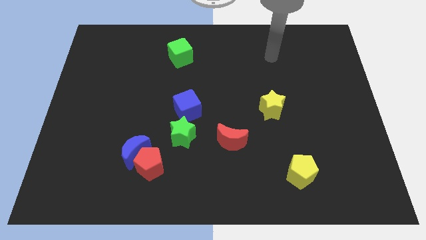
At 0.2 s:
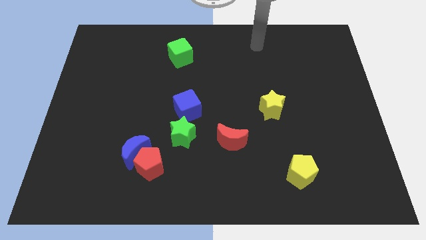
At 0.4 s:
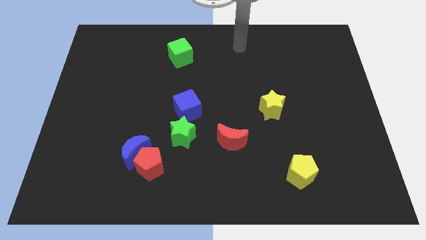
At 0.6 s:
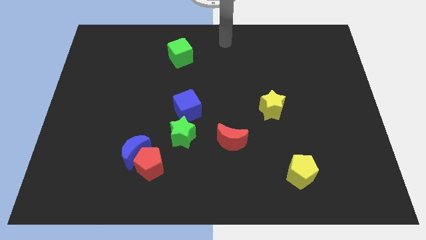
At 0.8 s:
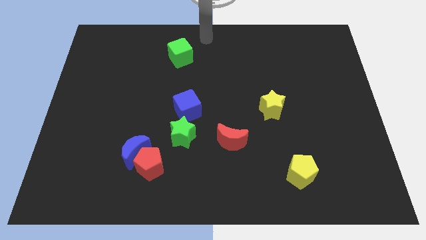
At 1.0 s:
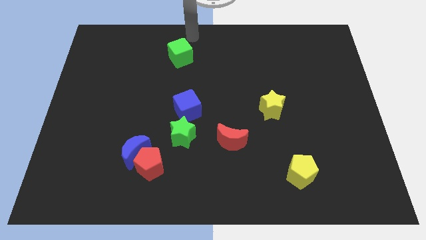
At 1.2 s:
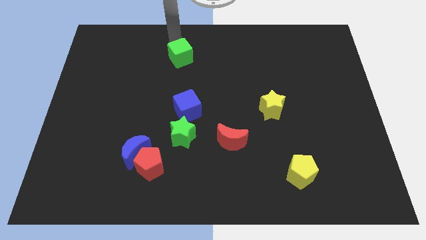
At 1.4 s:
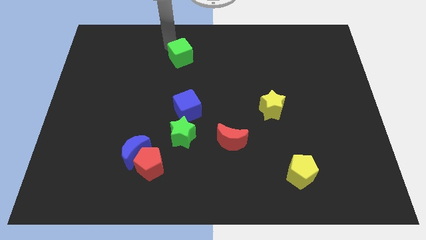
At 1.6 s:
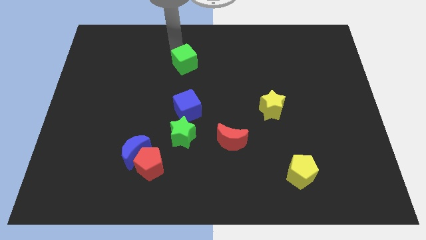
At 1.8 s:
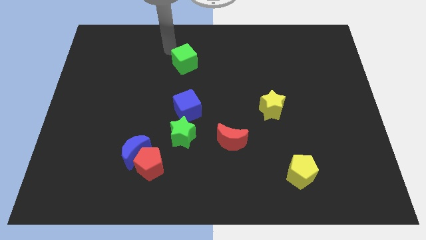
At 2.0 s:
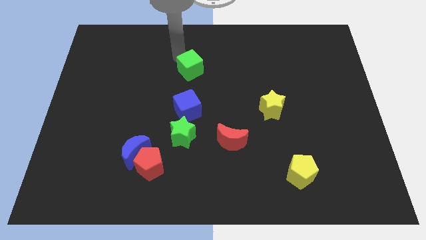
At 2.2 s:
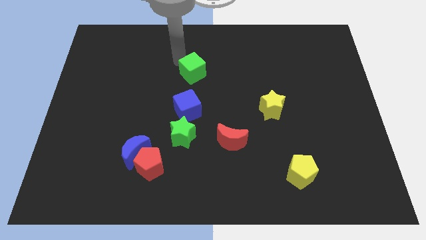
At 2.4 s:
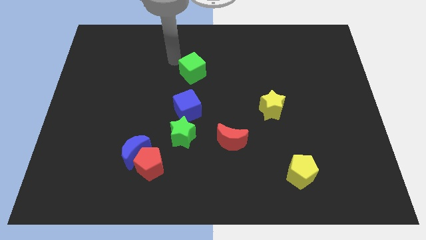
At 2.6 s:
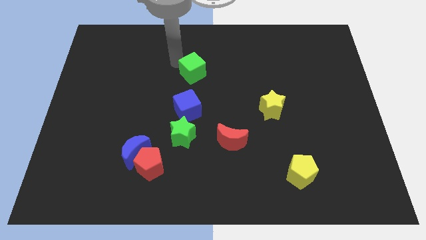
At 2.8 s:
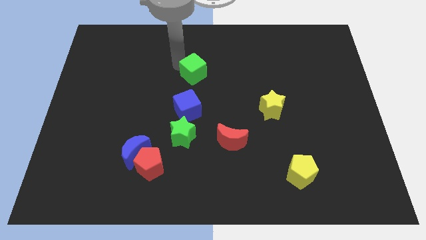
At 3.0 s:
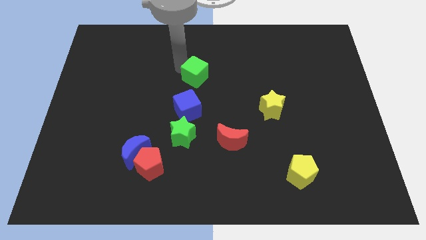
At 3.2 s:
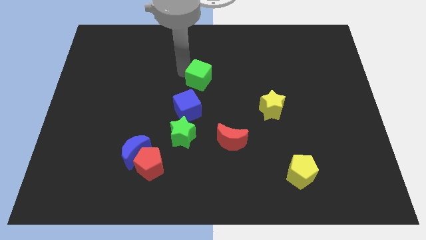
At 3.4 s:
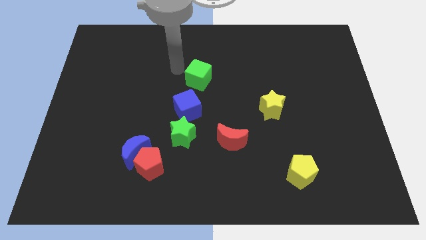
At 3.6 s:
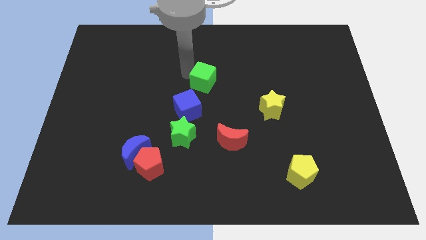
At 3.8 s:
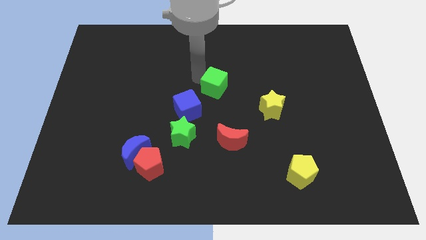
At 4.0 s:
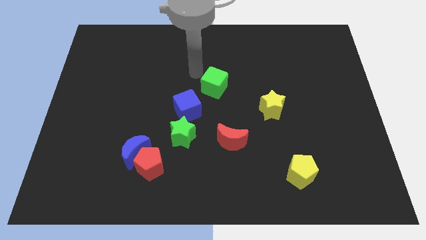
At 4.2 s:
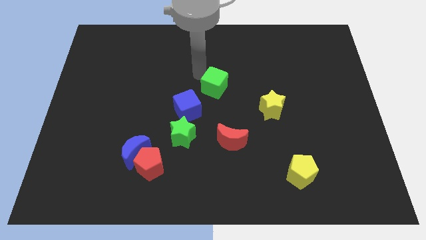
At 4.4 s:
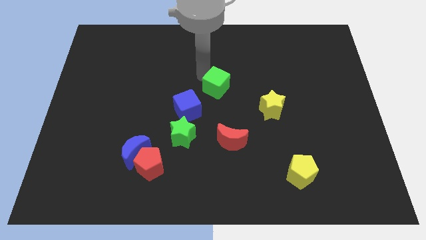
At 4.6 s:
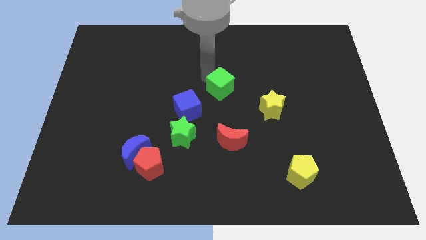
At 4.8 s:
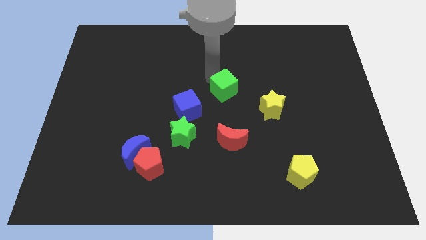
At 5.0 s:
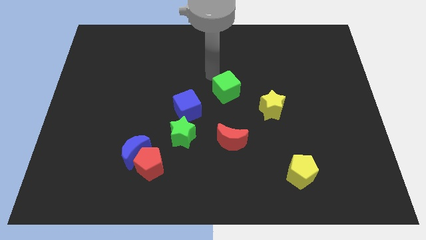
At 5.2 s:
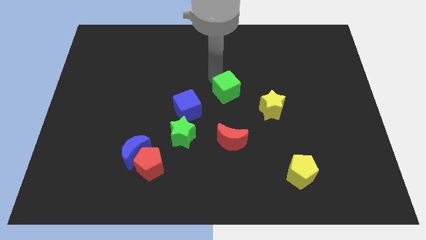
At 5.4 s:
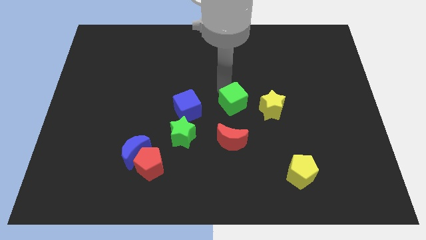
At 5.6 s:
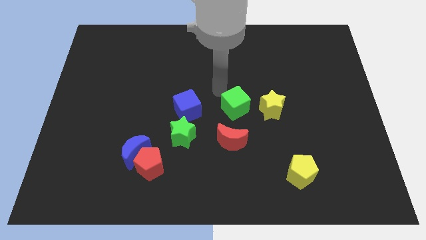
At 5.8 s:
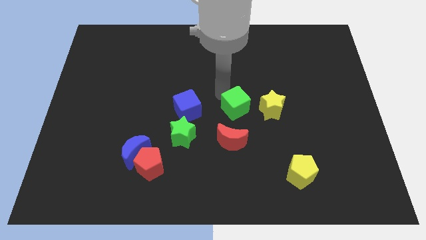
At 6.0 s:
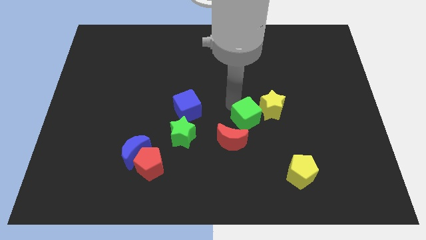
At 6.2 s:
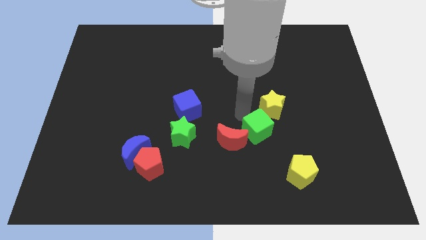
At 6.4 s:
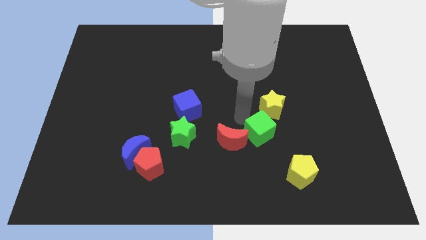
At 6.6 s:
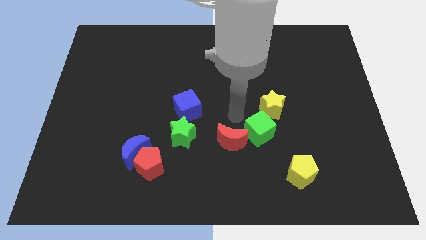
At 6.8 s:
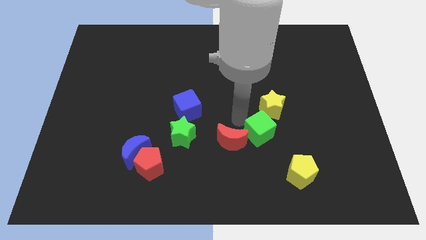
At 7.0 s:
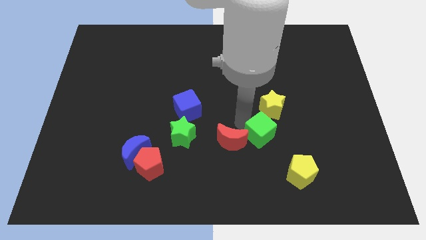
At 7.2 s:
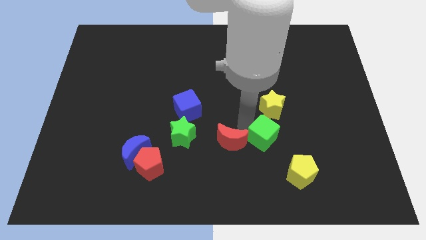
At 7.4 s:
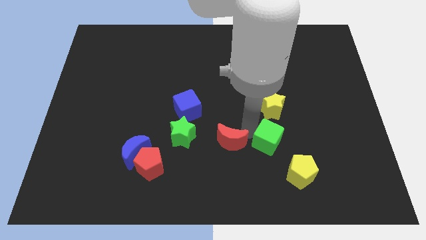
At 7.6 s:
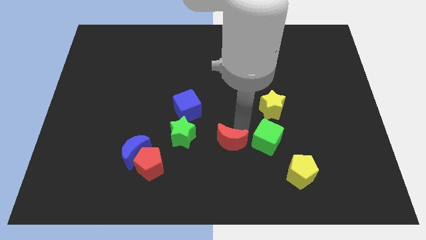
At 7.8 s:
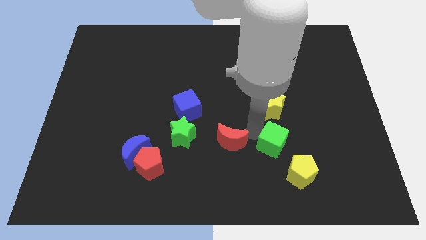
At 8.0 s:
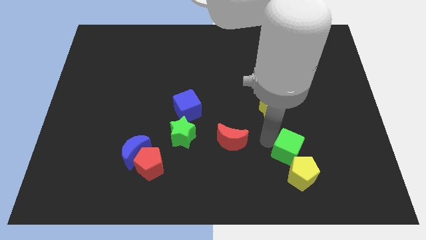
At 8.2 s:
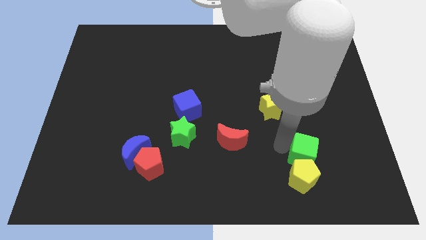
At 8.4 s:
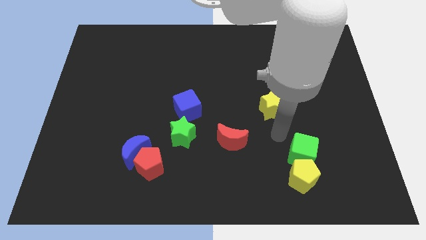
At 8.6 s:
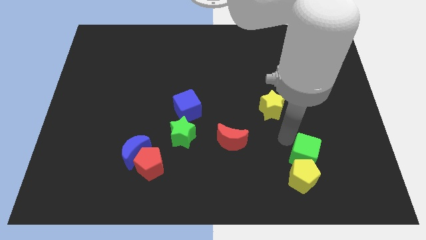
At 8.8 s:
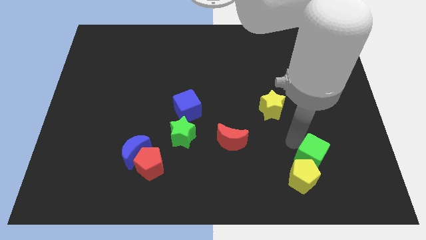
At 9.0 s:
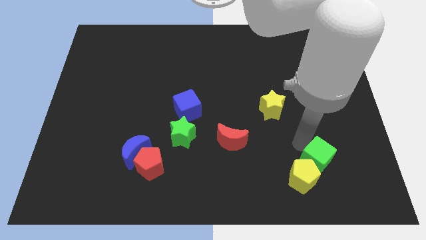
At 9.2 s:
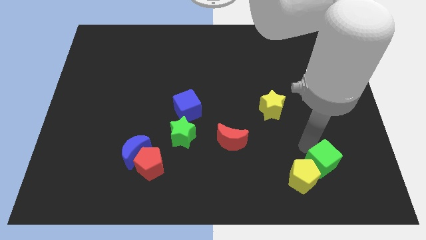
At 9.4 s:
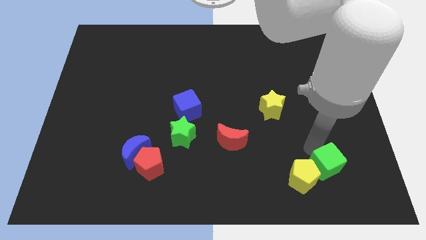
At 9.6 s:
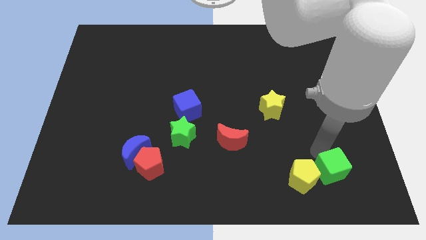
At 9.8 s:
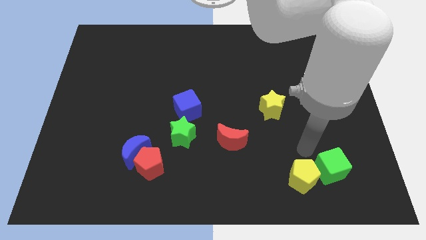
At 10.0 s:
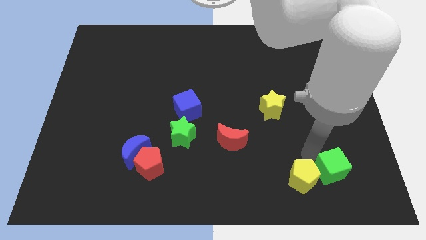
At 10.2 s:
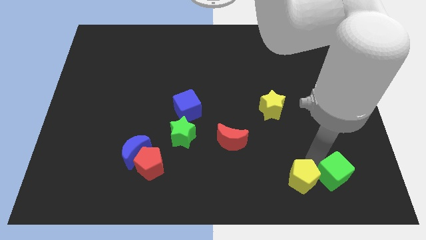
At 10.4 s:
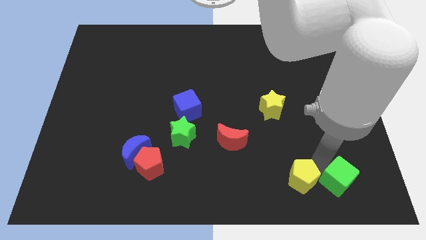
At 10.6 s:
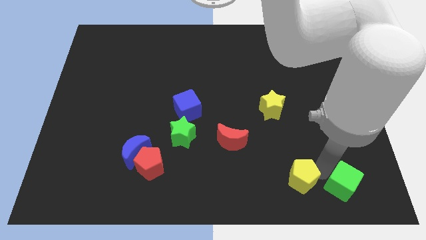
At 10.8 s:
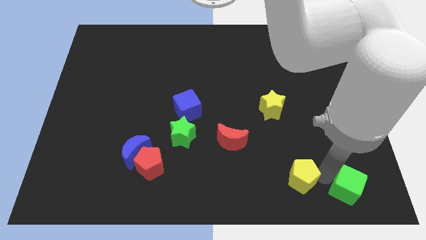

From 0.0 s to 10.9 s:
push the green cube to the bottom right corner

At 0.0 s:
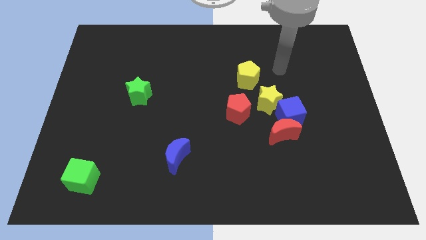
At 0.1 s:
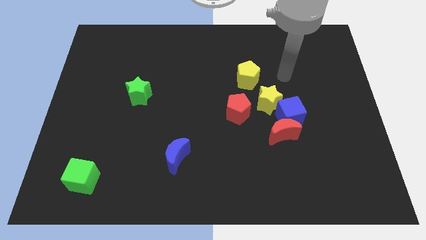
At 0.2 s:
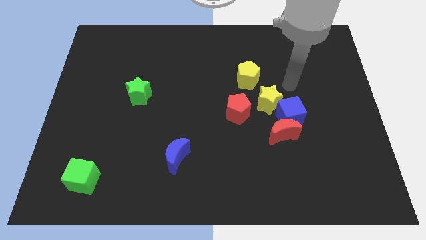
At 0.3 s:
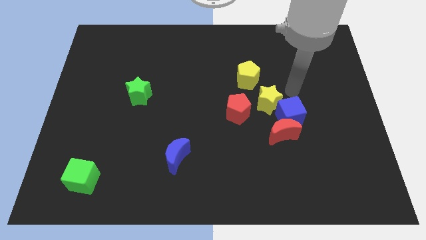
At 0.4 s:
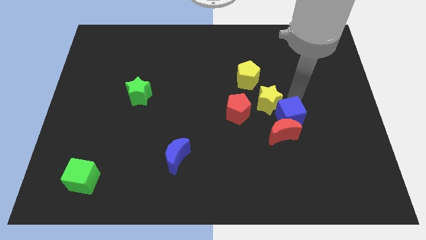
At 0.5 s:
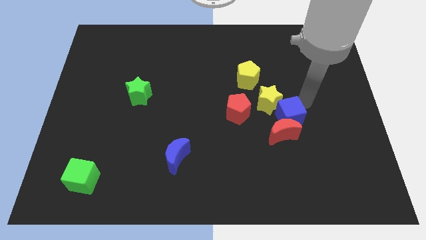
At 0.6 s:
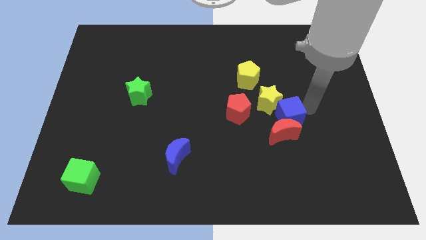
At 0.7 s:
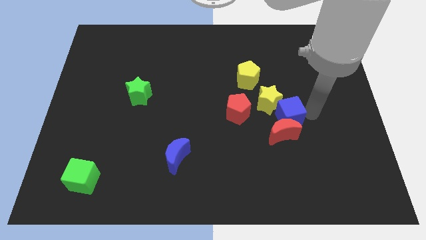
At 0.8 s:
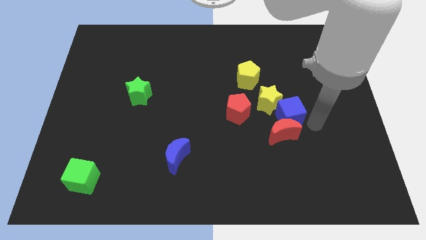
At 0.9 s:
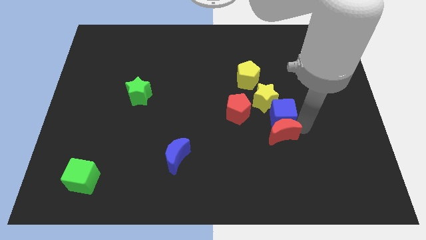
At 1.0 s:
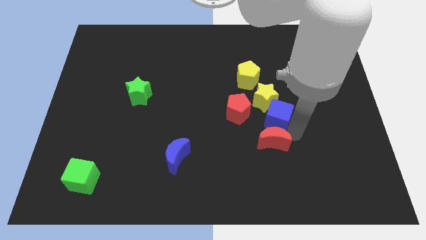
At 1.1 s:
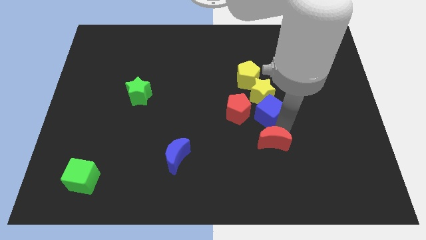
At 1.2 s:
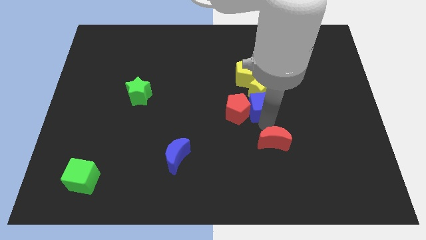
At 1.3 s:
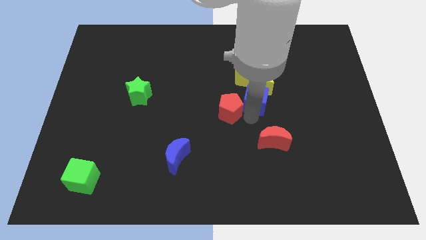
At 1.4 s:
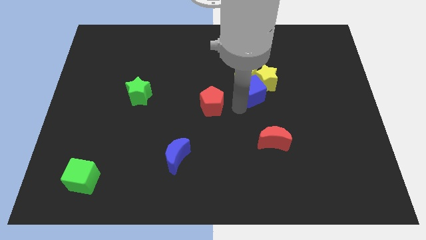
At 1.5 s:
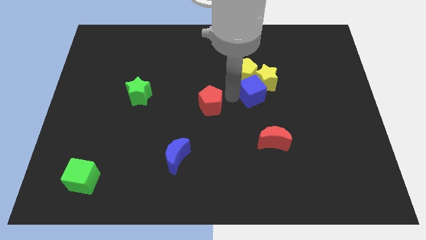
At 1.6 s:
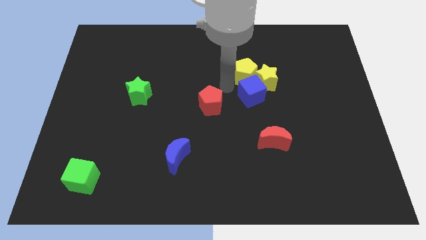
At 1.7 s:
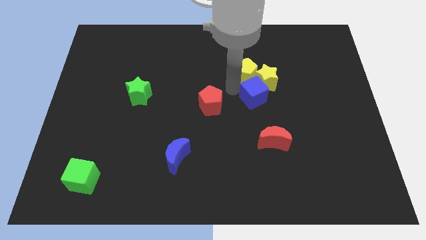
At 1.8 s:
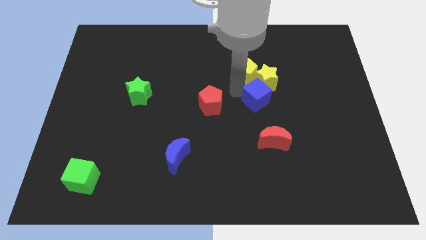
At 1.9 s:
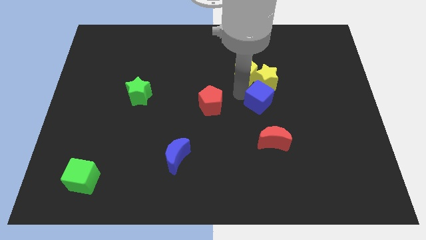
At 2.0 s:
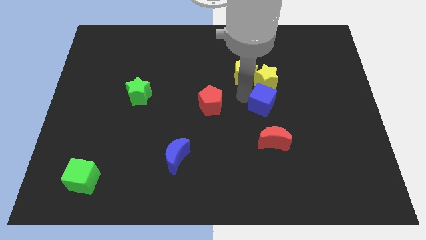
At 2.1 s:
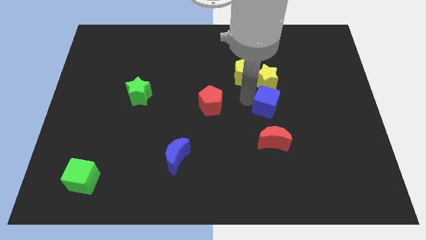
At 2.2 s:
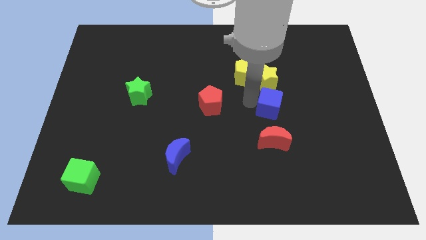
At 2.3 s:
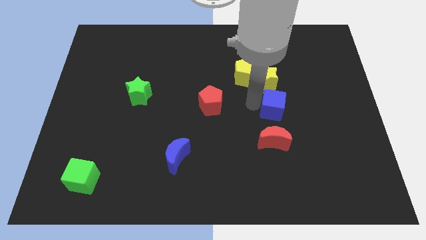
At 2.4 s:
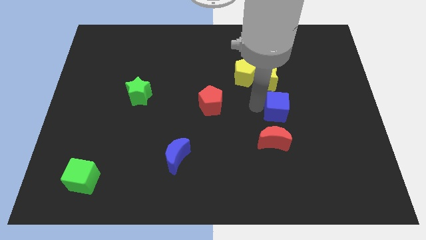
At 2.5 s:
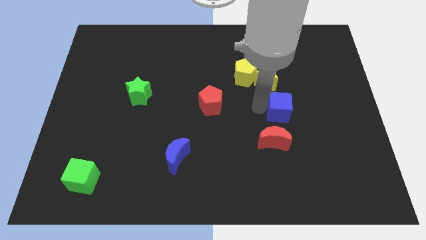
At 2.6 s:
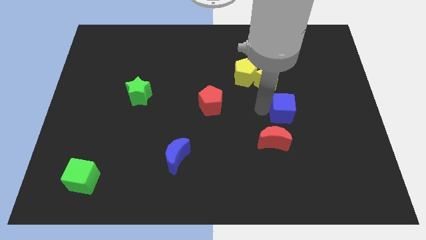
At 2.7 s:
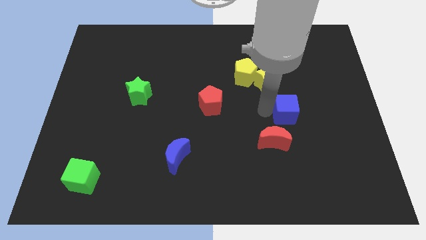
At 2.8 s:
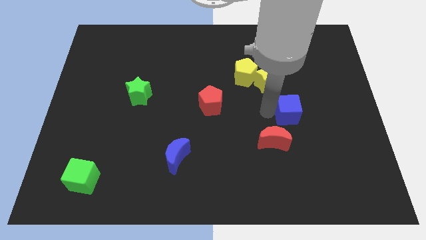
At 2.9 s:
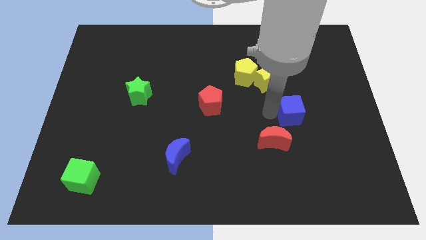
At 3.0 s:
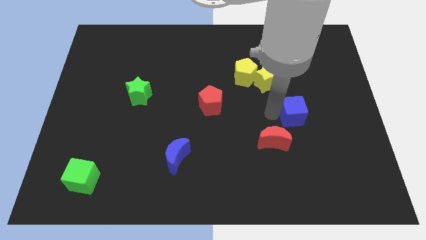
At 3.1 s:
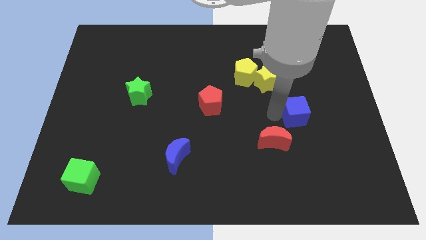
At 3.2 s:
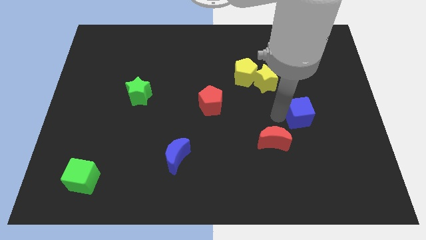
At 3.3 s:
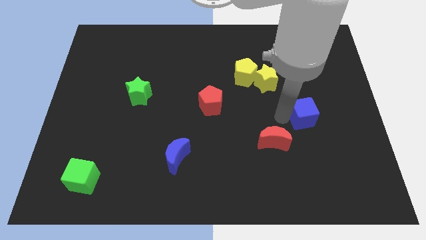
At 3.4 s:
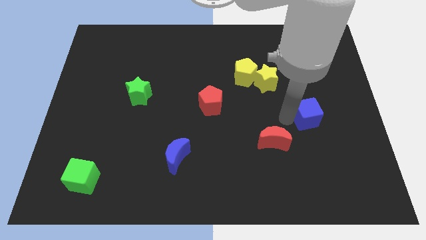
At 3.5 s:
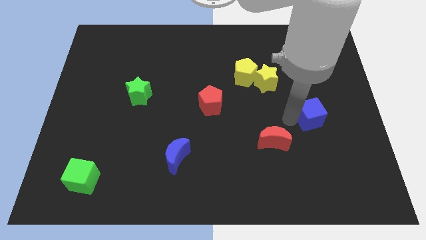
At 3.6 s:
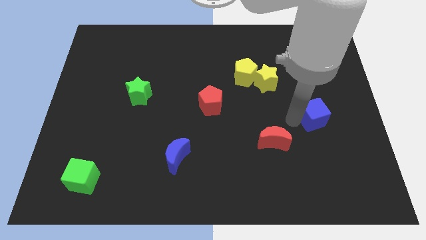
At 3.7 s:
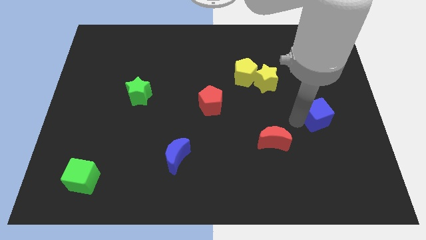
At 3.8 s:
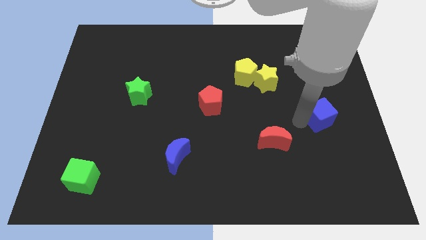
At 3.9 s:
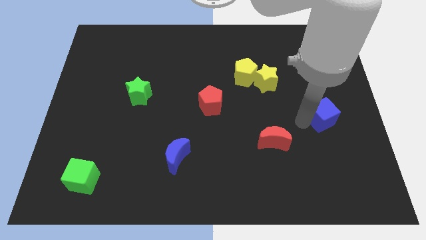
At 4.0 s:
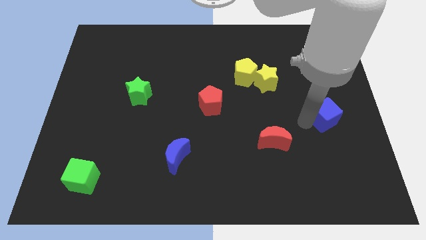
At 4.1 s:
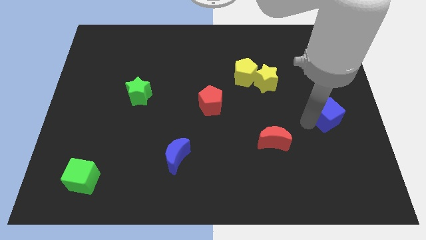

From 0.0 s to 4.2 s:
slide the blue cube to the right side of the board
